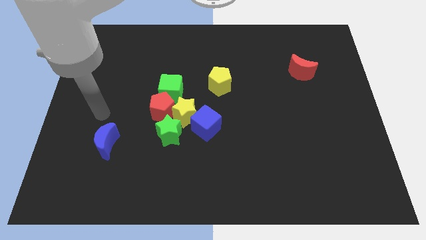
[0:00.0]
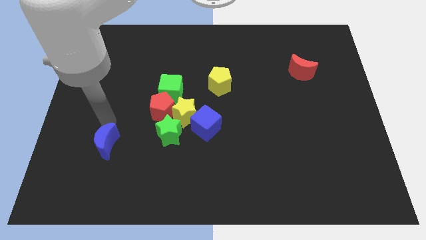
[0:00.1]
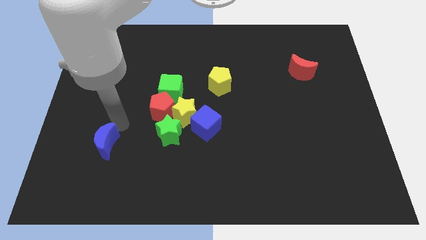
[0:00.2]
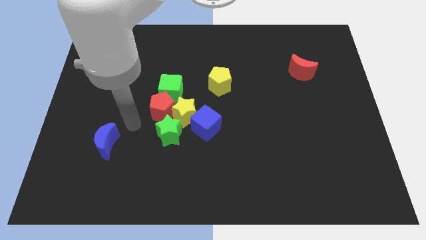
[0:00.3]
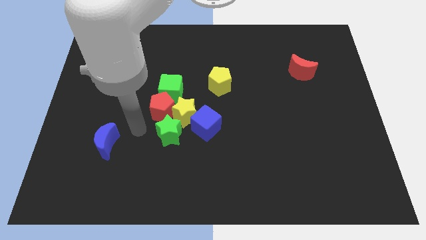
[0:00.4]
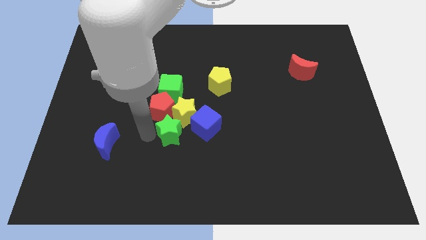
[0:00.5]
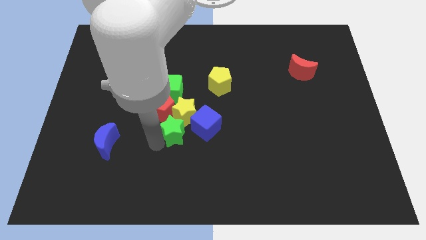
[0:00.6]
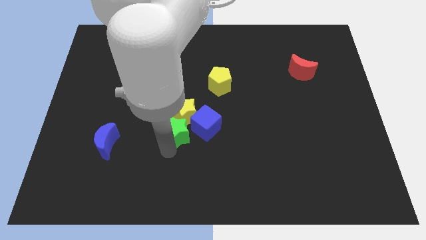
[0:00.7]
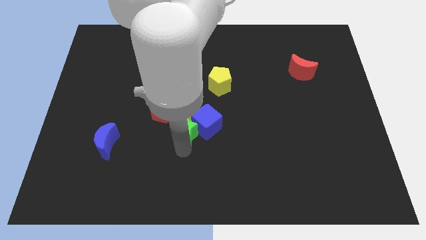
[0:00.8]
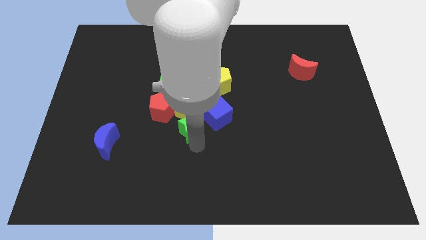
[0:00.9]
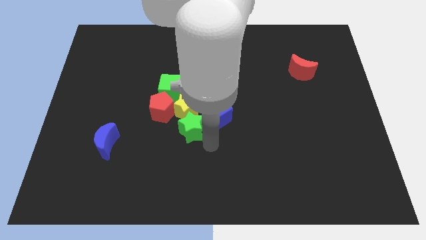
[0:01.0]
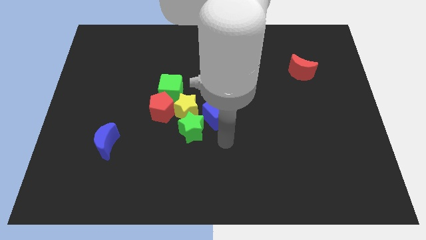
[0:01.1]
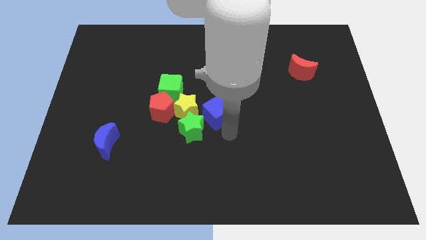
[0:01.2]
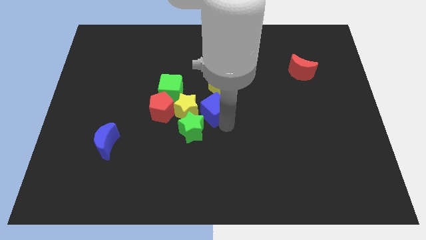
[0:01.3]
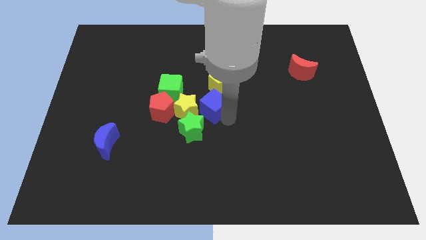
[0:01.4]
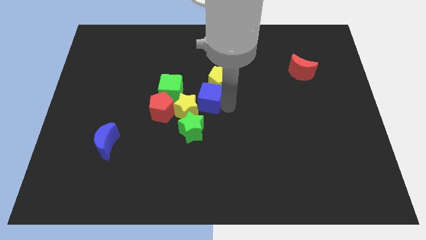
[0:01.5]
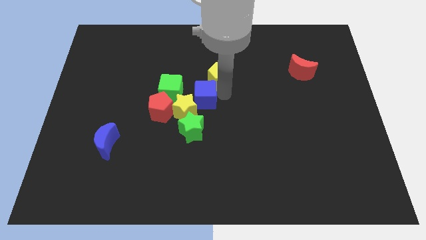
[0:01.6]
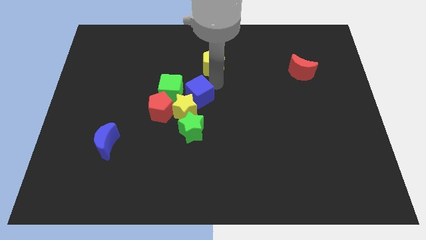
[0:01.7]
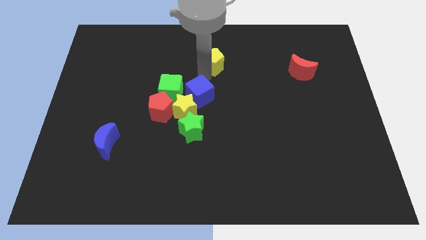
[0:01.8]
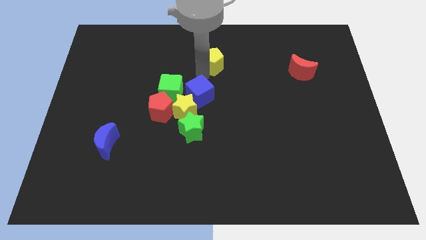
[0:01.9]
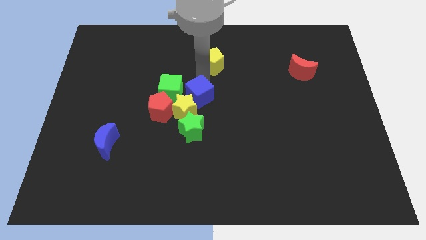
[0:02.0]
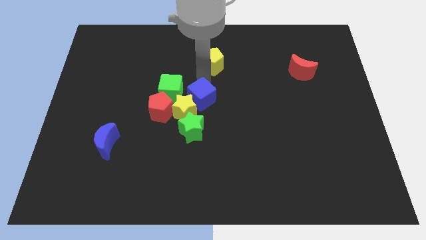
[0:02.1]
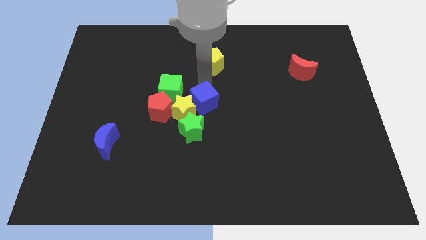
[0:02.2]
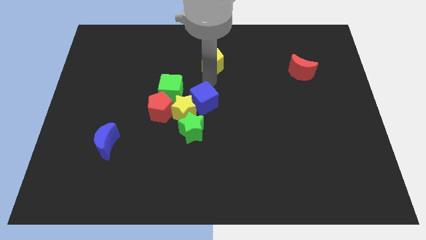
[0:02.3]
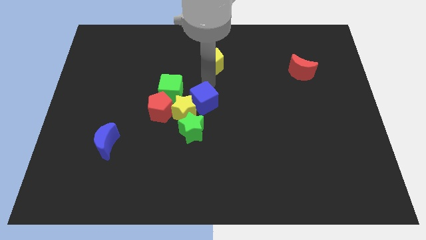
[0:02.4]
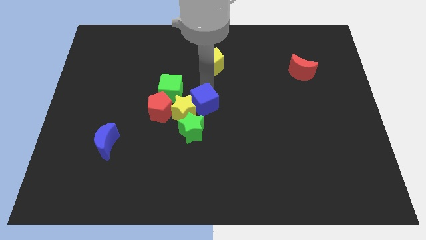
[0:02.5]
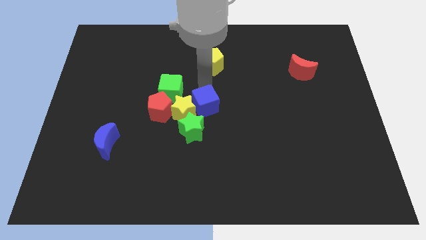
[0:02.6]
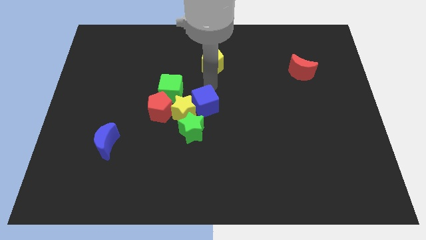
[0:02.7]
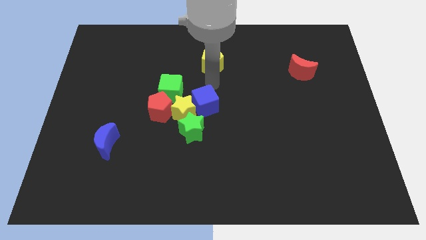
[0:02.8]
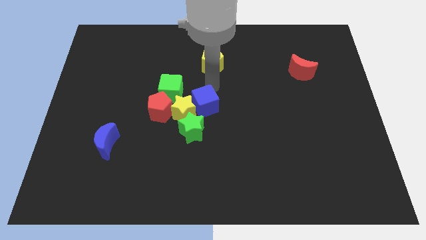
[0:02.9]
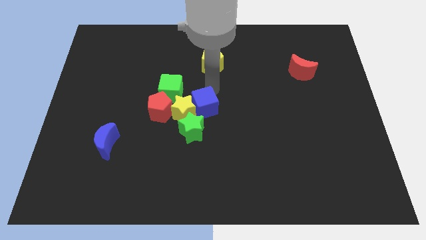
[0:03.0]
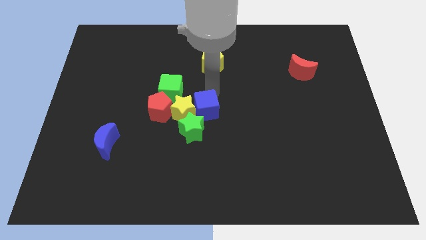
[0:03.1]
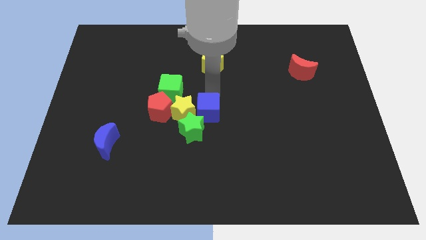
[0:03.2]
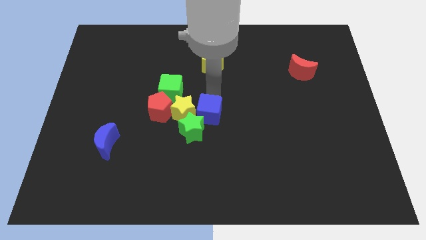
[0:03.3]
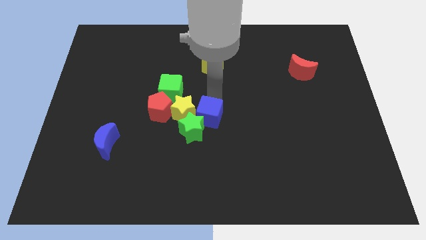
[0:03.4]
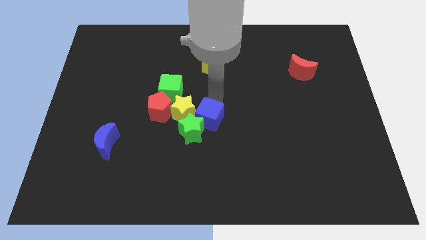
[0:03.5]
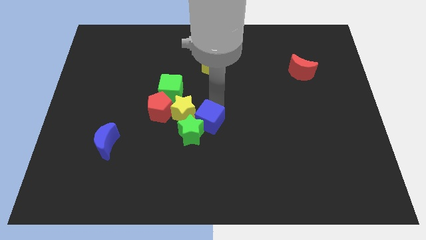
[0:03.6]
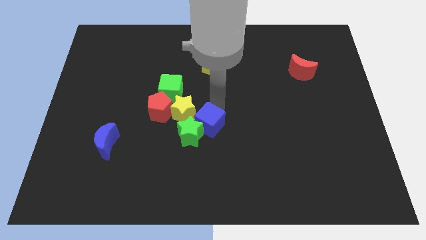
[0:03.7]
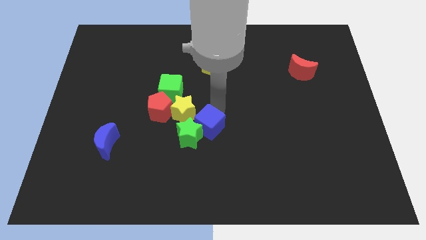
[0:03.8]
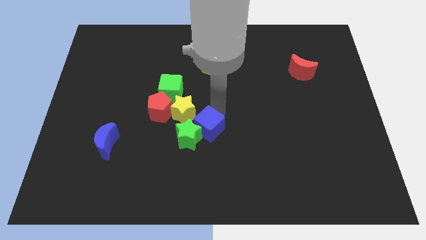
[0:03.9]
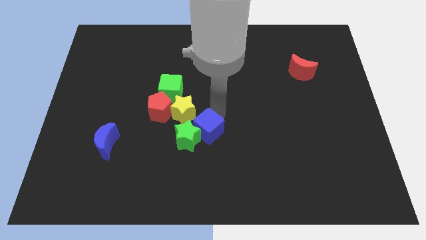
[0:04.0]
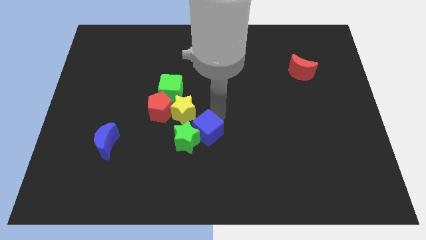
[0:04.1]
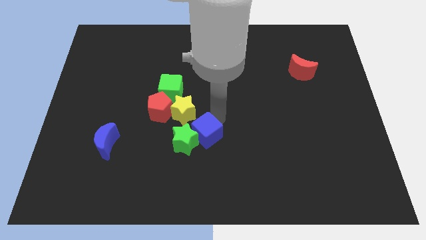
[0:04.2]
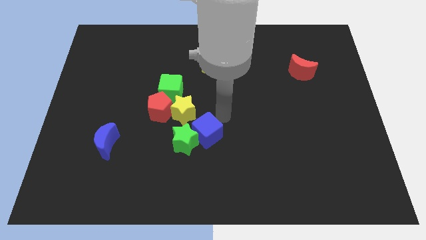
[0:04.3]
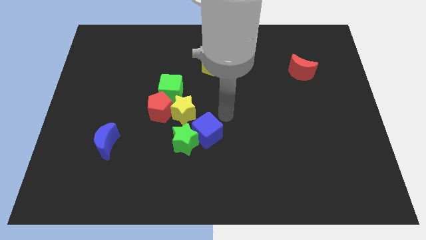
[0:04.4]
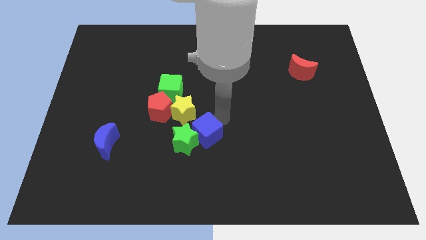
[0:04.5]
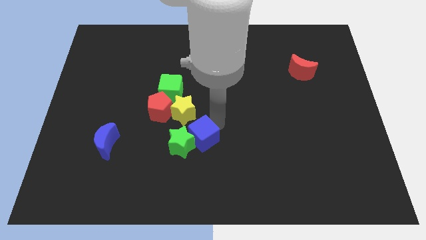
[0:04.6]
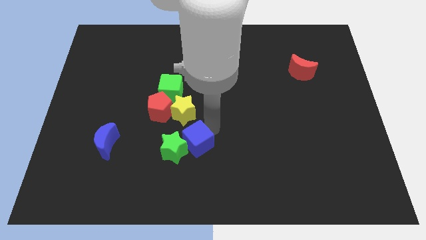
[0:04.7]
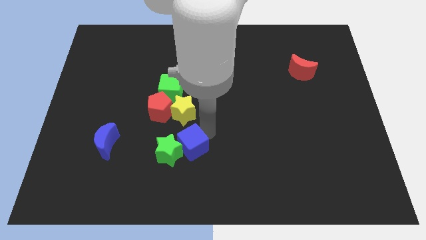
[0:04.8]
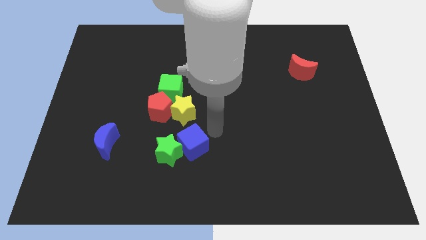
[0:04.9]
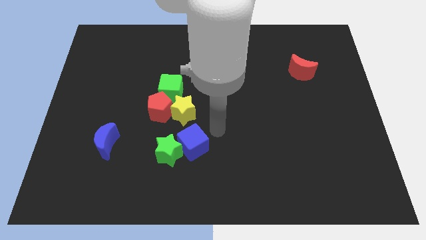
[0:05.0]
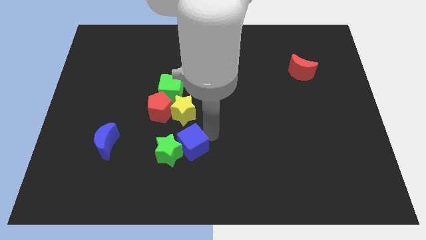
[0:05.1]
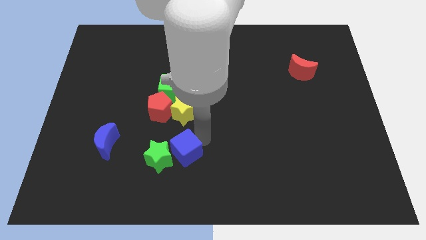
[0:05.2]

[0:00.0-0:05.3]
slightly slide the blue cube down and to the left diagonally

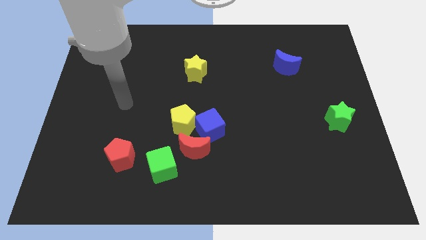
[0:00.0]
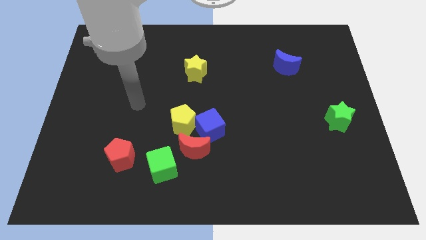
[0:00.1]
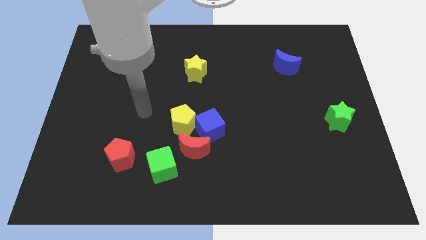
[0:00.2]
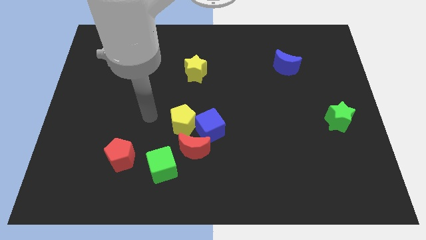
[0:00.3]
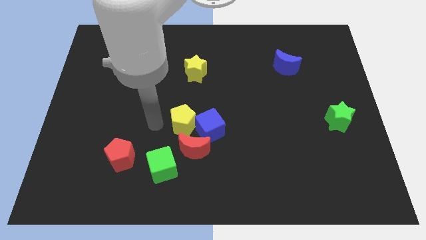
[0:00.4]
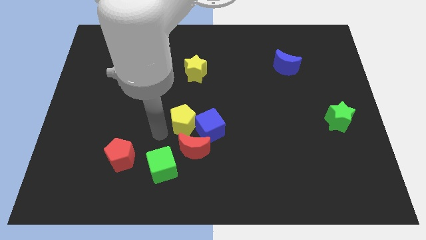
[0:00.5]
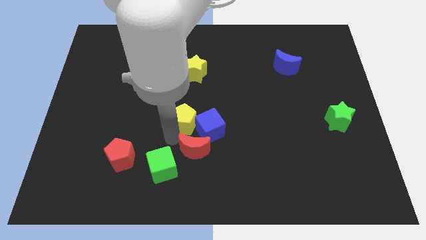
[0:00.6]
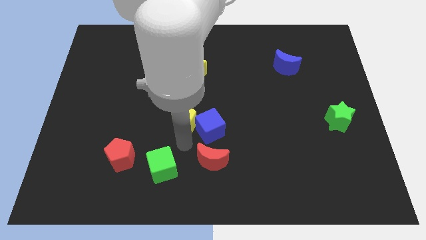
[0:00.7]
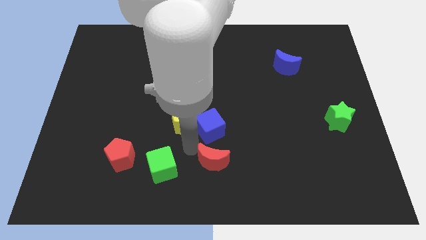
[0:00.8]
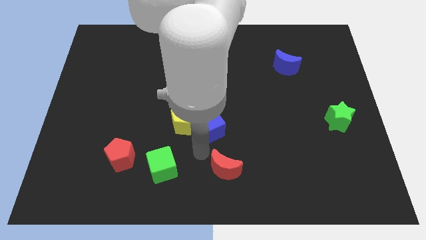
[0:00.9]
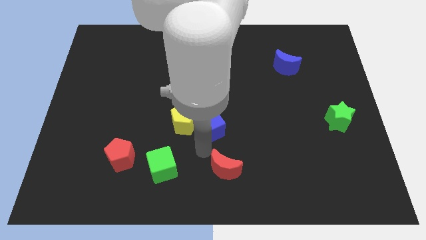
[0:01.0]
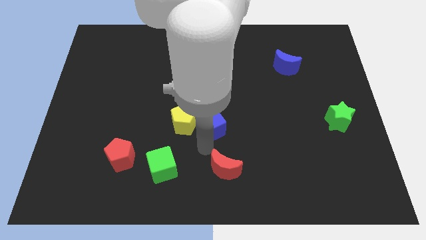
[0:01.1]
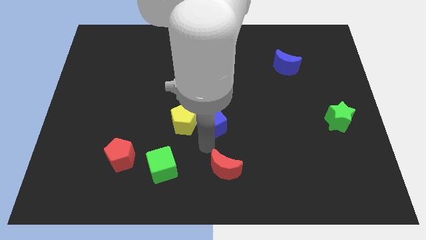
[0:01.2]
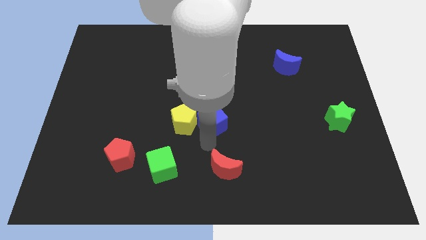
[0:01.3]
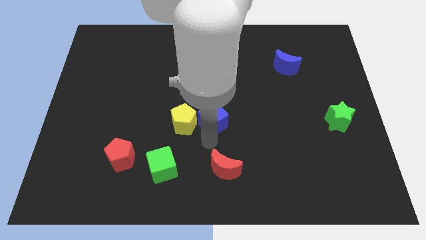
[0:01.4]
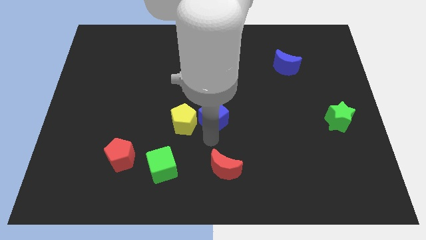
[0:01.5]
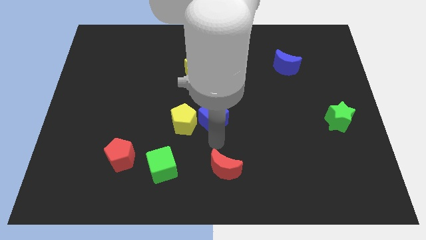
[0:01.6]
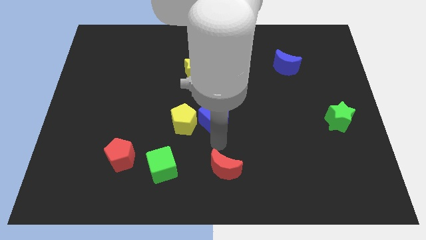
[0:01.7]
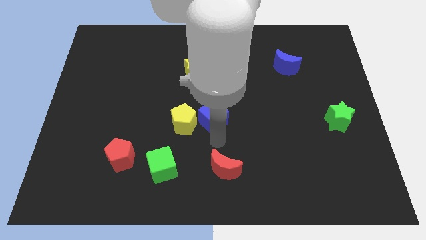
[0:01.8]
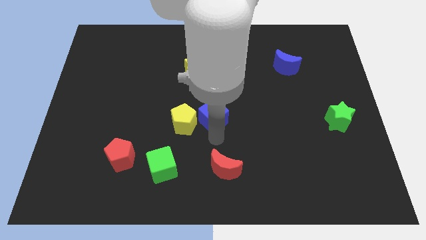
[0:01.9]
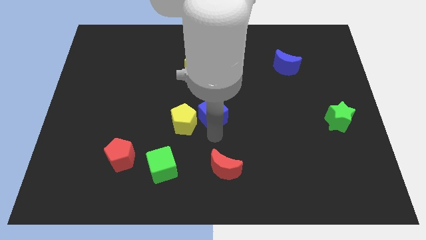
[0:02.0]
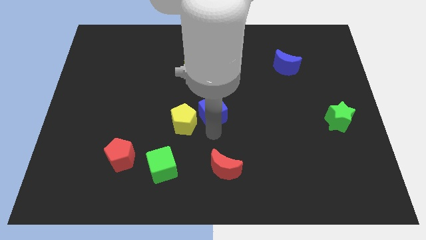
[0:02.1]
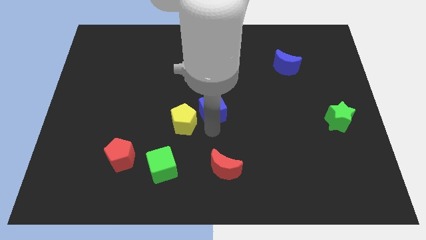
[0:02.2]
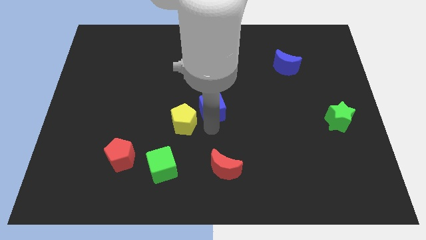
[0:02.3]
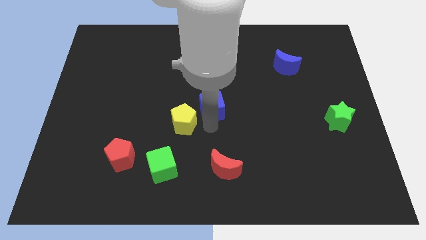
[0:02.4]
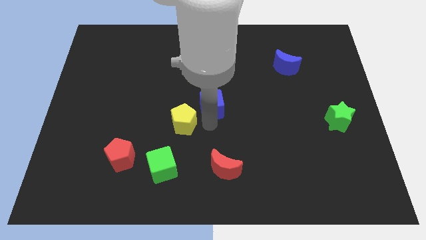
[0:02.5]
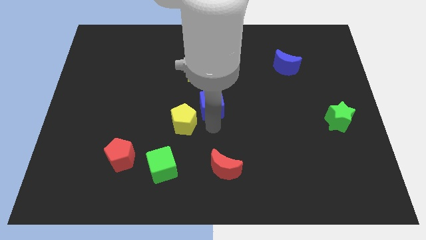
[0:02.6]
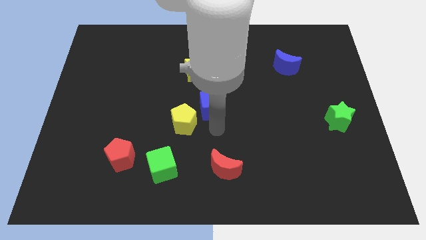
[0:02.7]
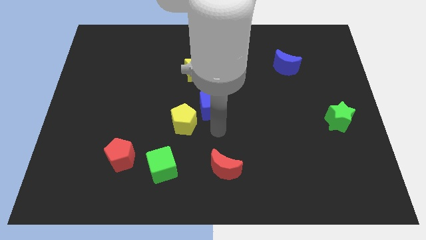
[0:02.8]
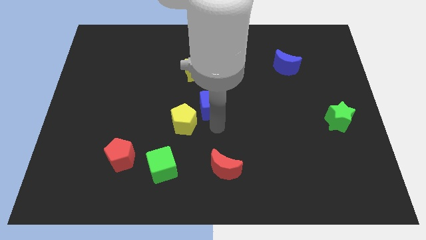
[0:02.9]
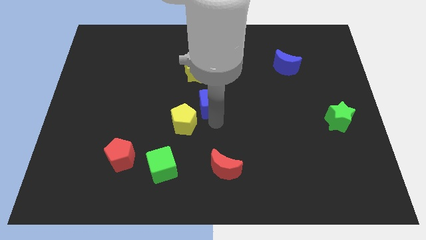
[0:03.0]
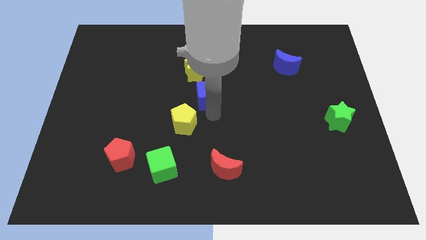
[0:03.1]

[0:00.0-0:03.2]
slide the blue cube somewhat up
